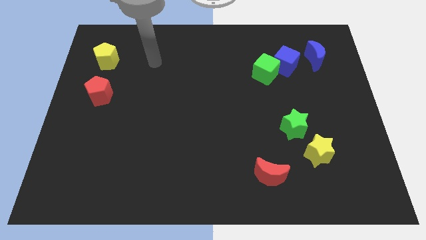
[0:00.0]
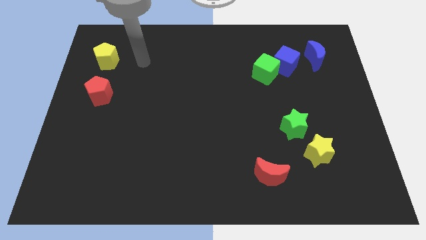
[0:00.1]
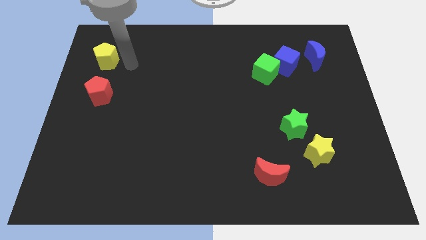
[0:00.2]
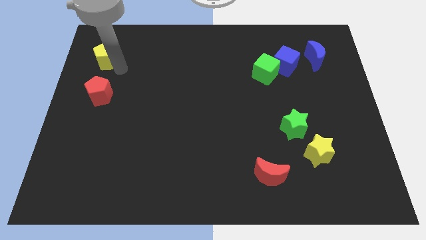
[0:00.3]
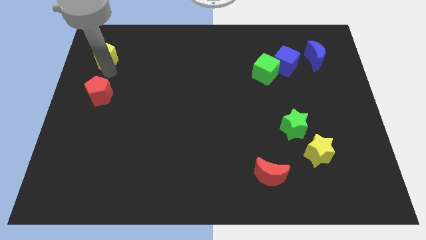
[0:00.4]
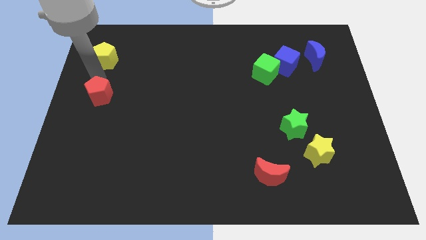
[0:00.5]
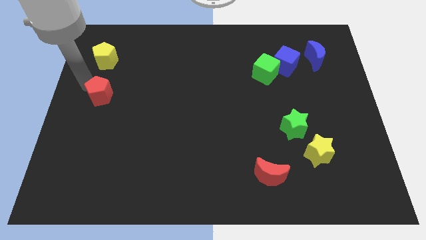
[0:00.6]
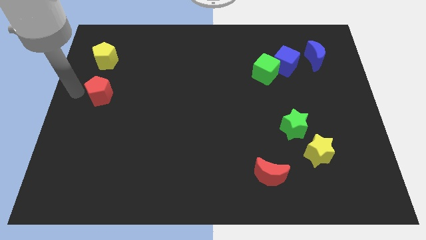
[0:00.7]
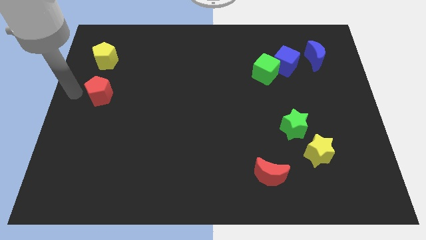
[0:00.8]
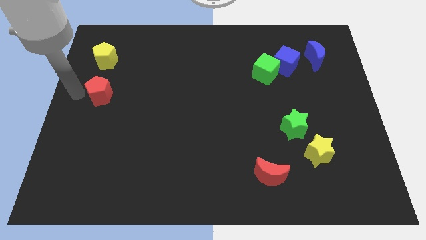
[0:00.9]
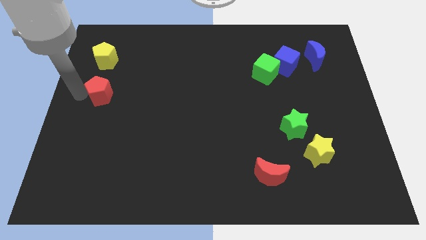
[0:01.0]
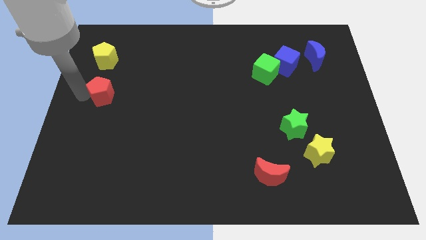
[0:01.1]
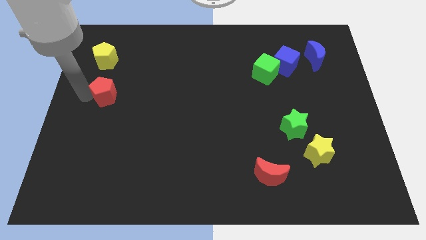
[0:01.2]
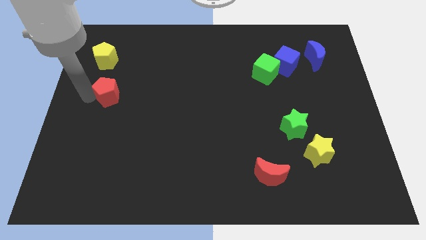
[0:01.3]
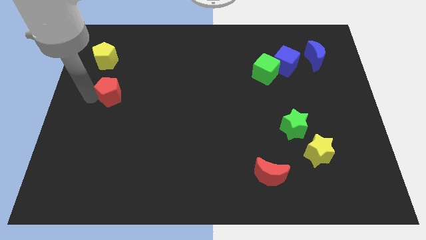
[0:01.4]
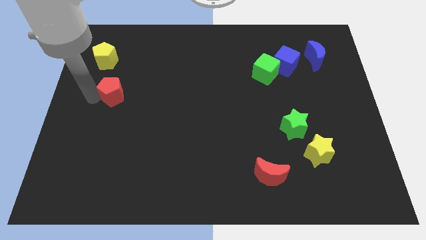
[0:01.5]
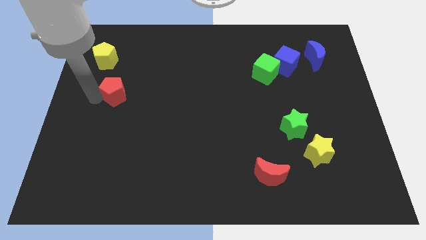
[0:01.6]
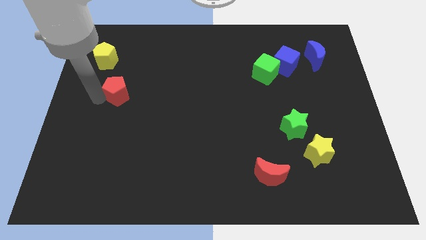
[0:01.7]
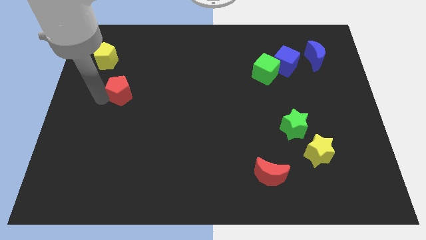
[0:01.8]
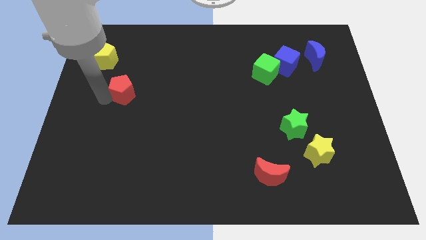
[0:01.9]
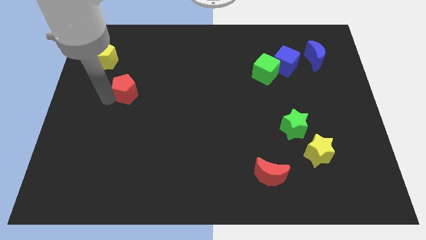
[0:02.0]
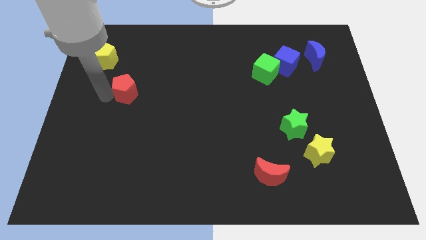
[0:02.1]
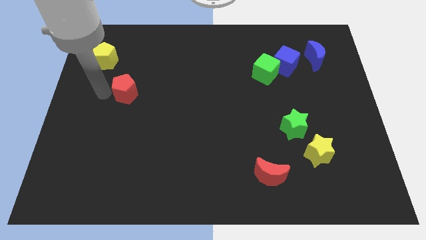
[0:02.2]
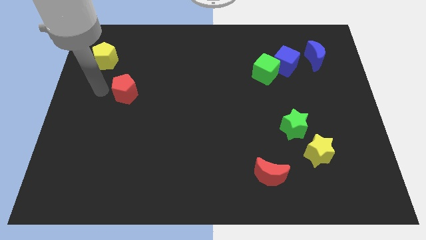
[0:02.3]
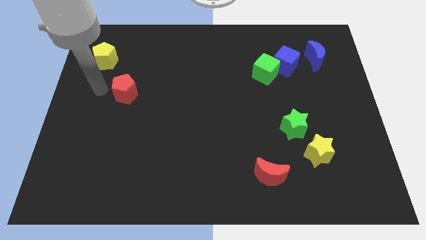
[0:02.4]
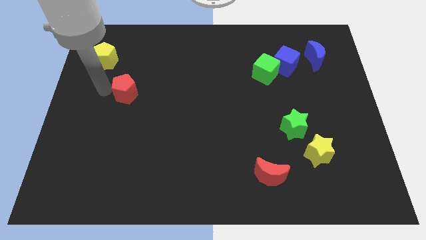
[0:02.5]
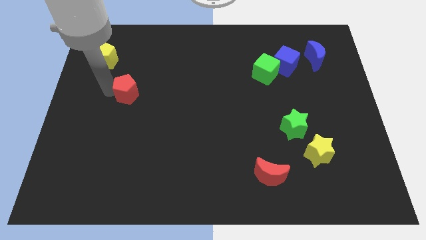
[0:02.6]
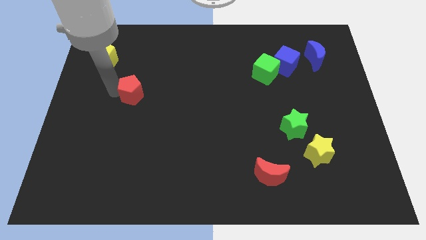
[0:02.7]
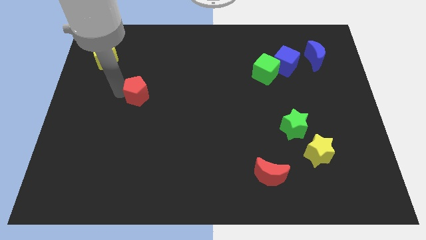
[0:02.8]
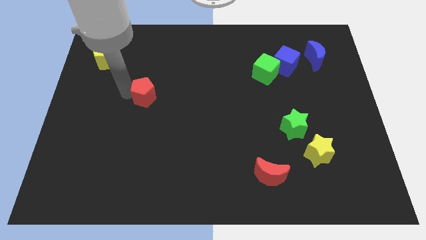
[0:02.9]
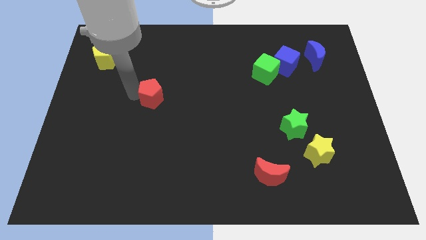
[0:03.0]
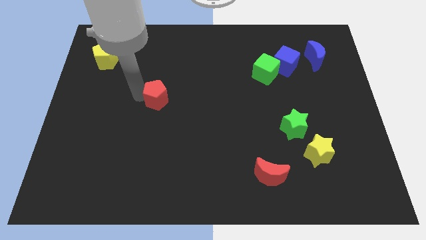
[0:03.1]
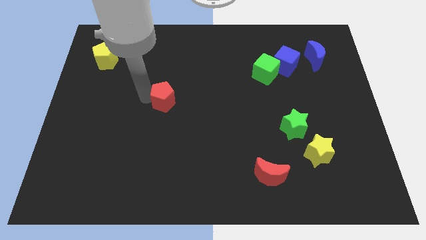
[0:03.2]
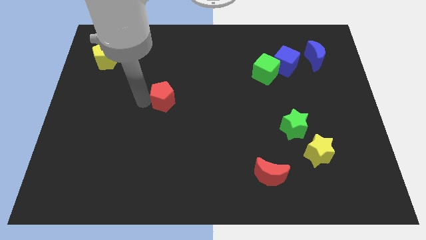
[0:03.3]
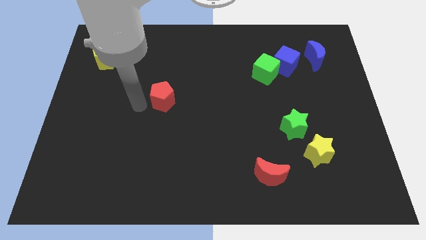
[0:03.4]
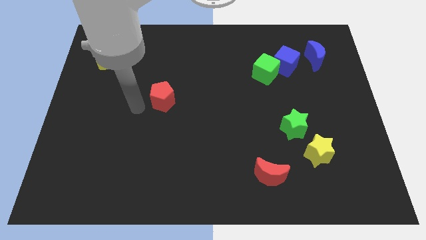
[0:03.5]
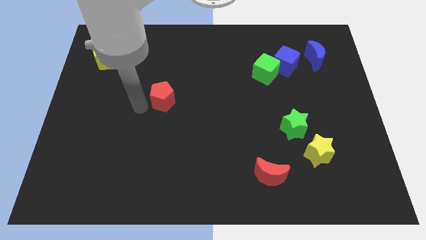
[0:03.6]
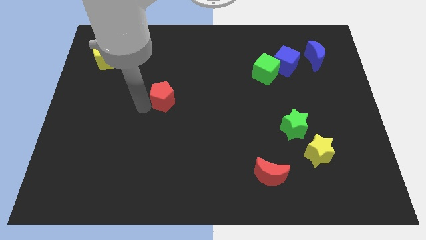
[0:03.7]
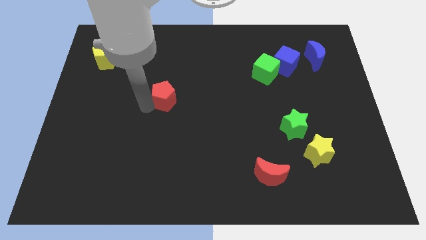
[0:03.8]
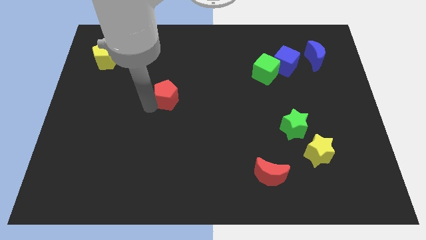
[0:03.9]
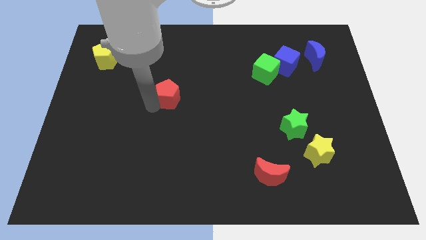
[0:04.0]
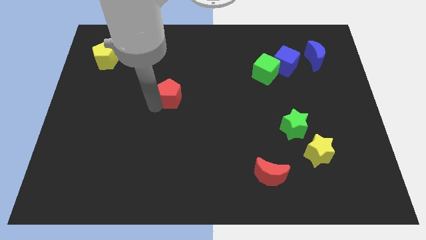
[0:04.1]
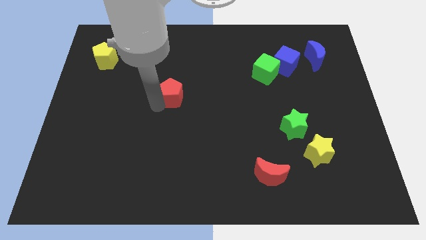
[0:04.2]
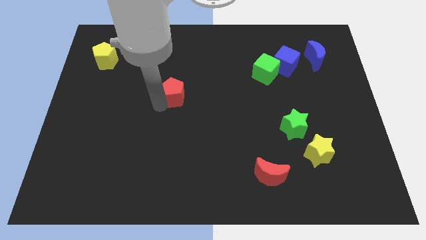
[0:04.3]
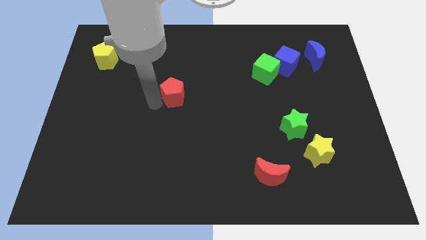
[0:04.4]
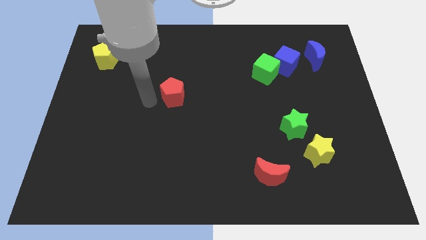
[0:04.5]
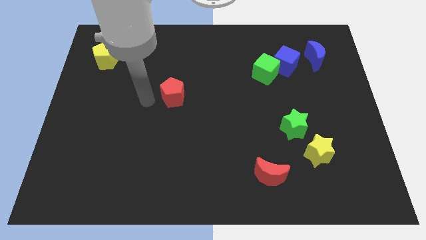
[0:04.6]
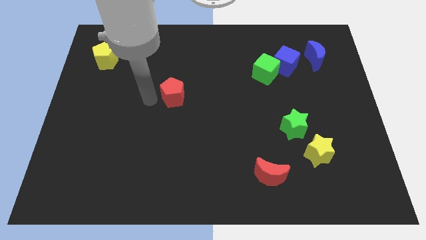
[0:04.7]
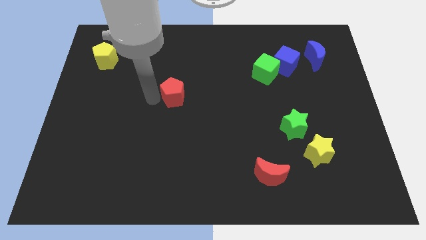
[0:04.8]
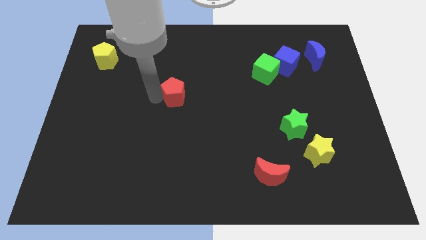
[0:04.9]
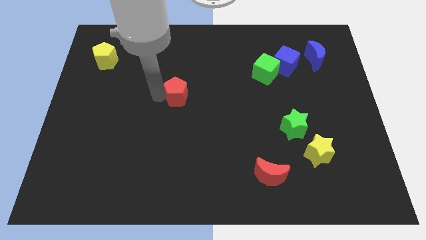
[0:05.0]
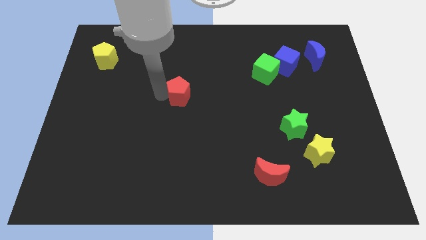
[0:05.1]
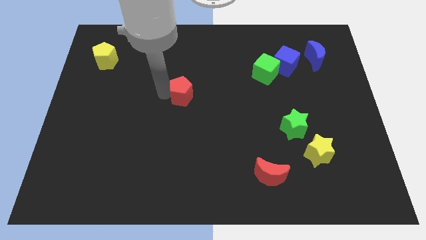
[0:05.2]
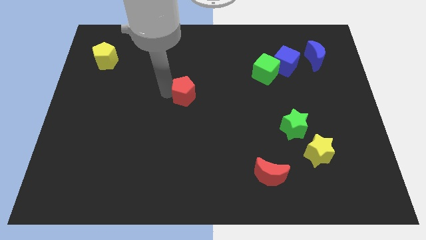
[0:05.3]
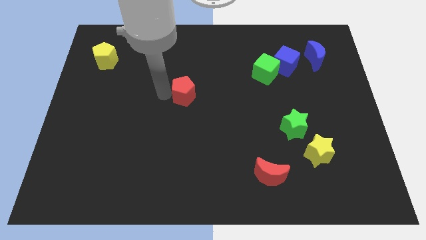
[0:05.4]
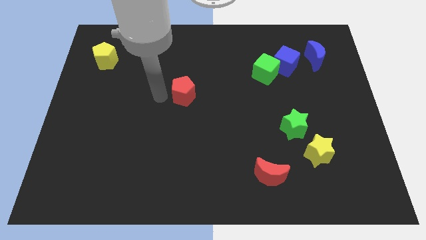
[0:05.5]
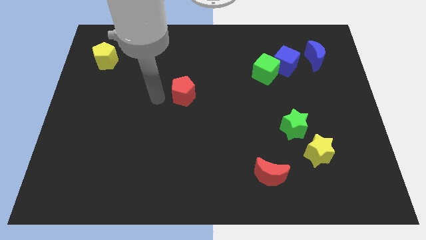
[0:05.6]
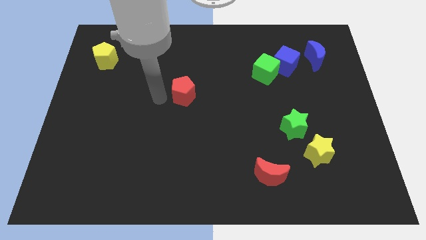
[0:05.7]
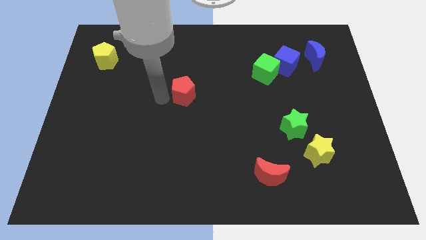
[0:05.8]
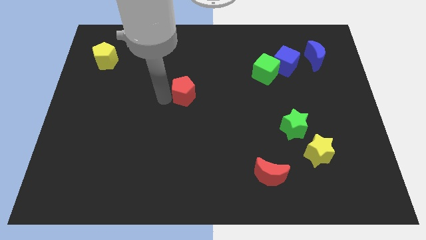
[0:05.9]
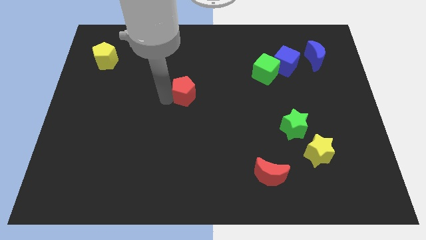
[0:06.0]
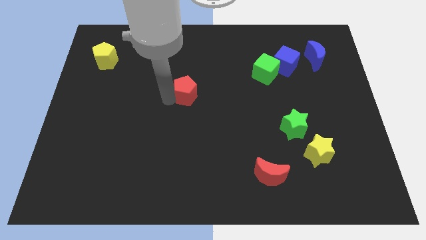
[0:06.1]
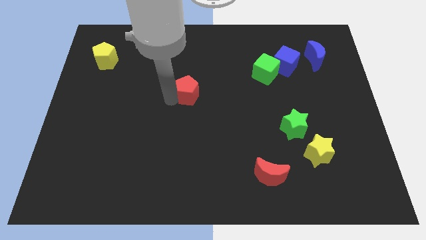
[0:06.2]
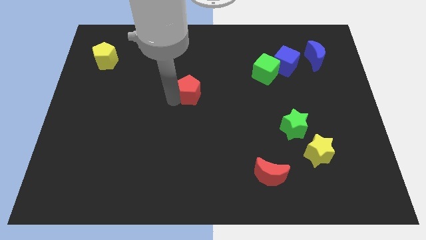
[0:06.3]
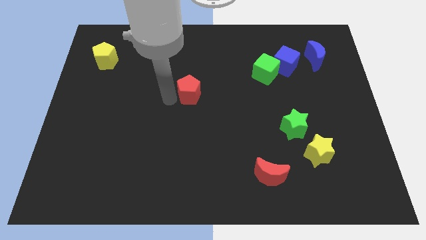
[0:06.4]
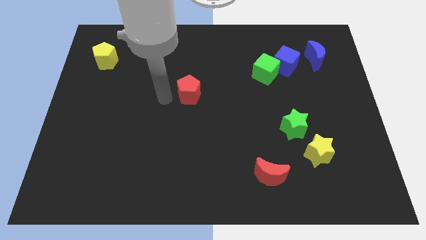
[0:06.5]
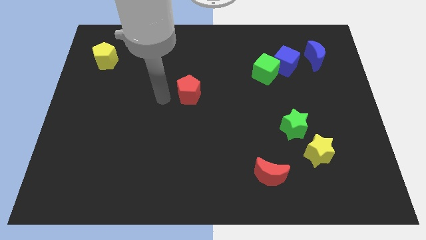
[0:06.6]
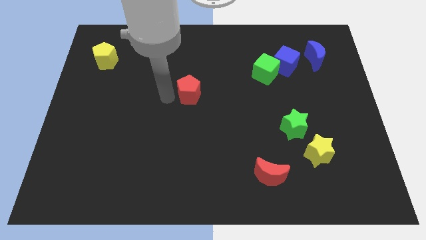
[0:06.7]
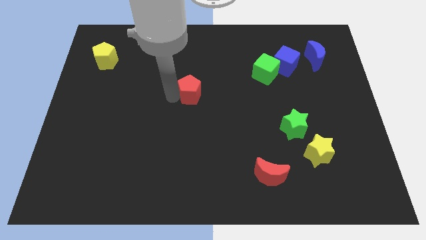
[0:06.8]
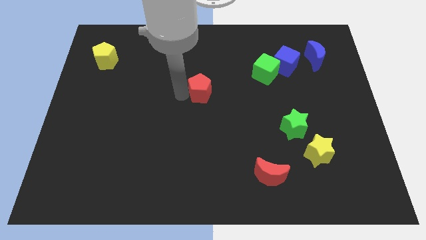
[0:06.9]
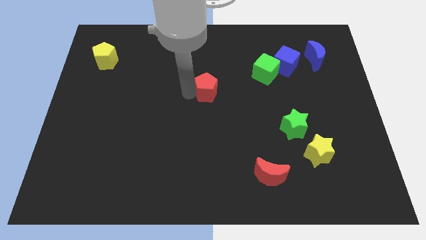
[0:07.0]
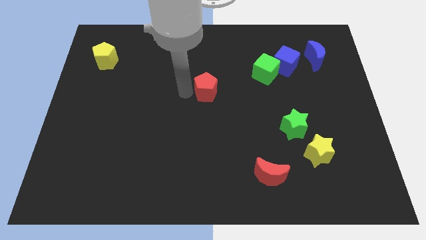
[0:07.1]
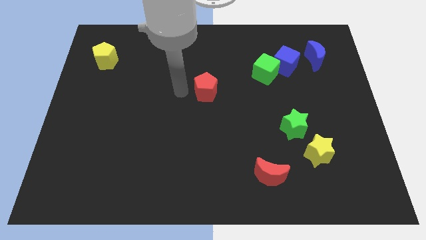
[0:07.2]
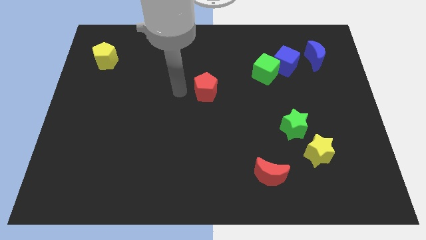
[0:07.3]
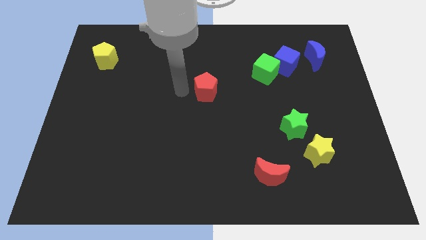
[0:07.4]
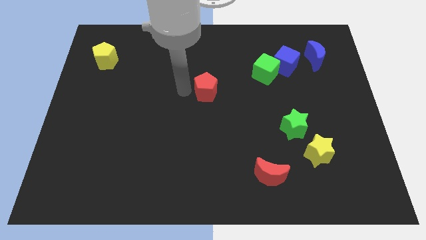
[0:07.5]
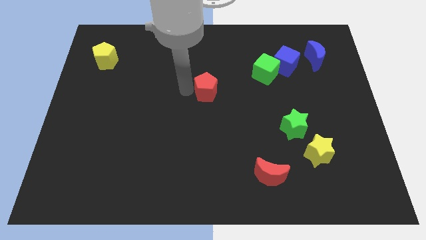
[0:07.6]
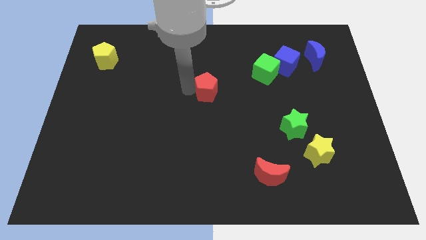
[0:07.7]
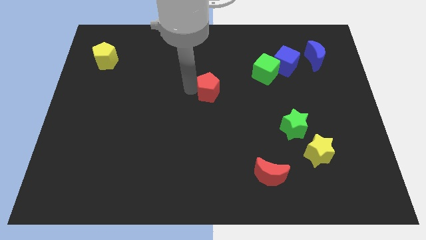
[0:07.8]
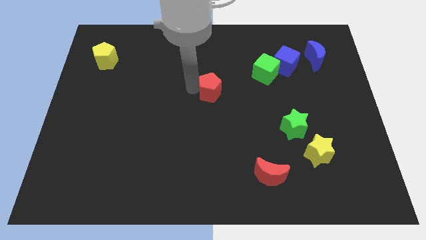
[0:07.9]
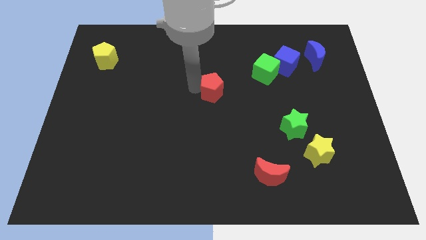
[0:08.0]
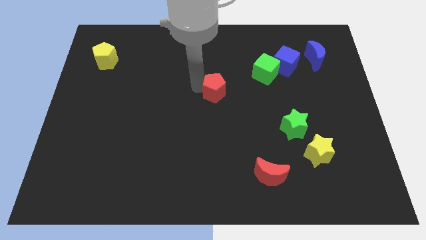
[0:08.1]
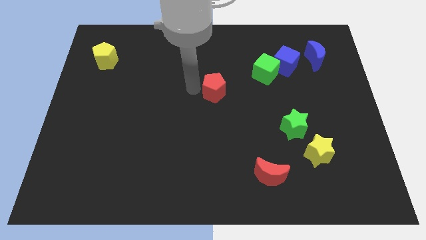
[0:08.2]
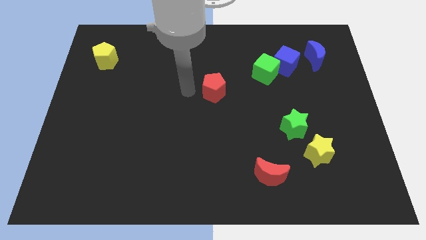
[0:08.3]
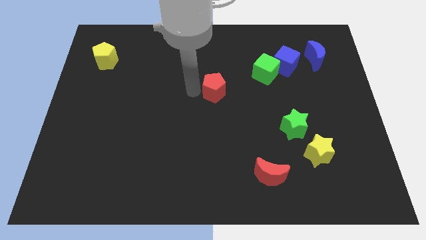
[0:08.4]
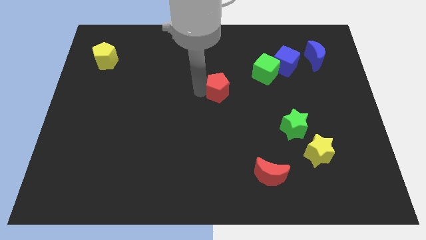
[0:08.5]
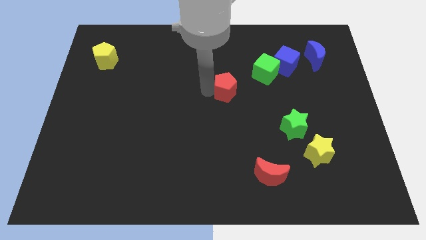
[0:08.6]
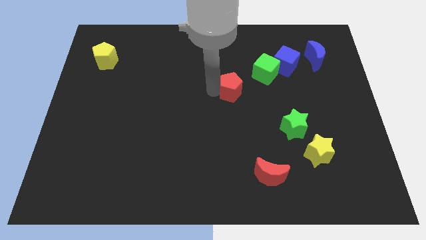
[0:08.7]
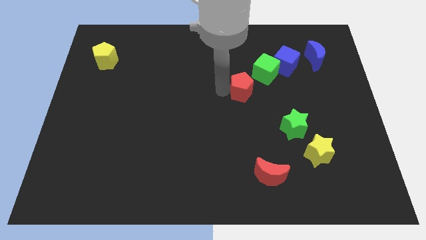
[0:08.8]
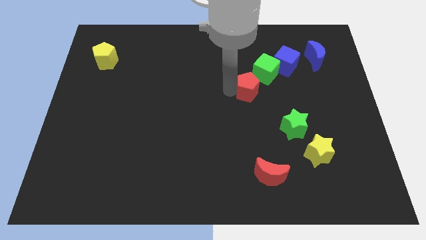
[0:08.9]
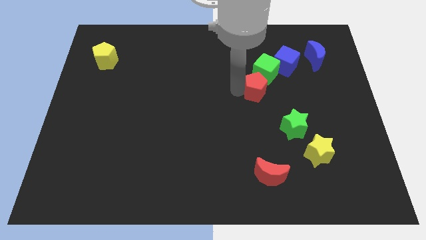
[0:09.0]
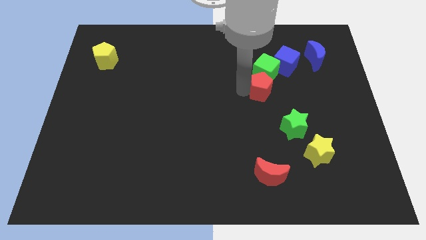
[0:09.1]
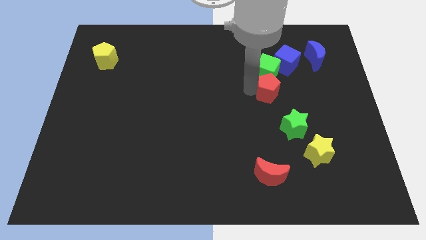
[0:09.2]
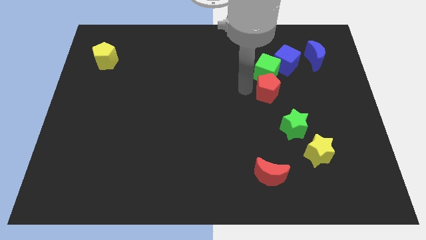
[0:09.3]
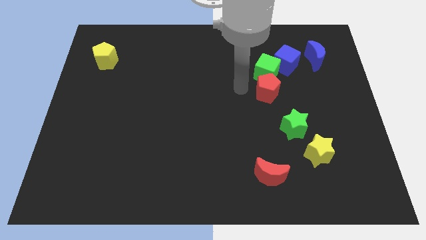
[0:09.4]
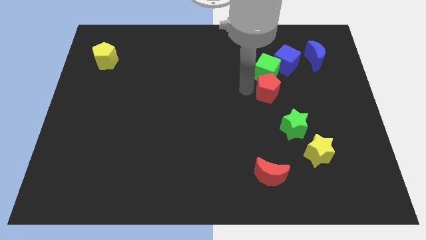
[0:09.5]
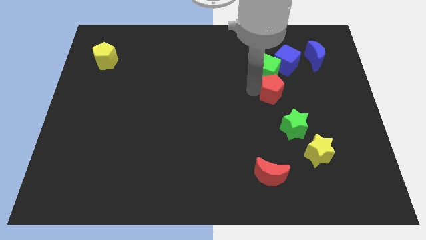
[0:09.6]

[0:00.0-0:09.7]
slide the red pentagon below the blue cube
